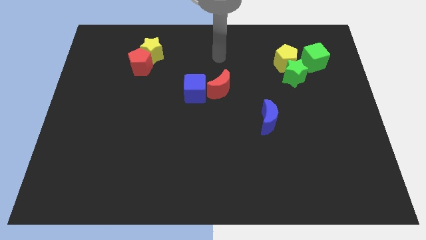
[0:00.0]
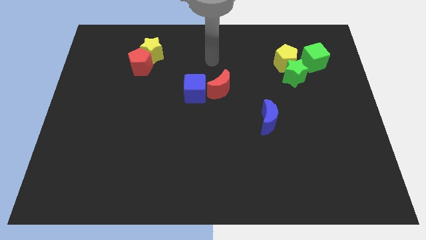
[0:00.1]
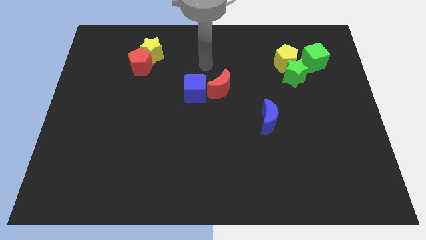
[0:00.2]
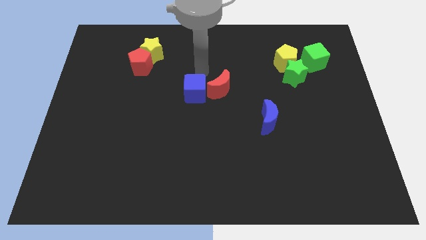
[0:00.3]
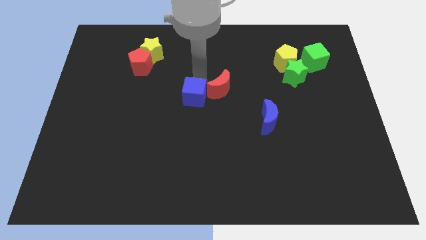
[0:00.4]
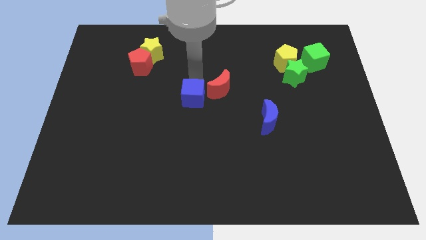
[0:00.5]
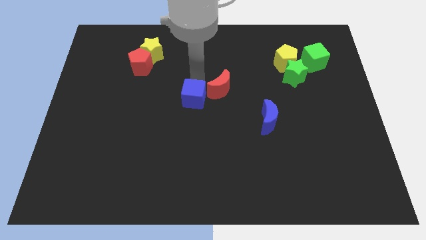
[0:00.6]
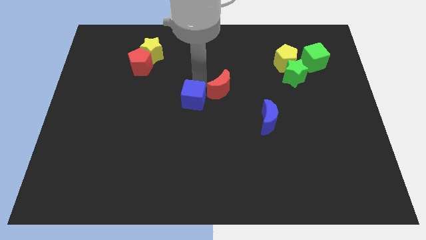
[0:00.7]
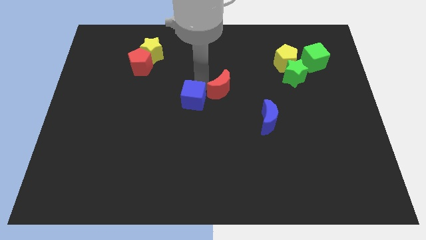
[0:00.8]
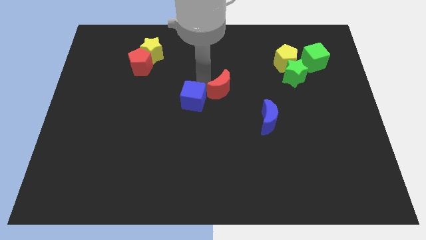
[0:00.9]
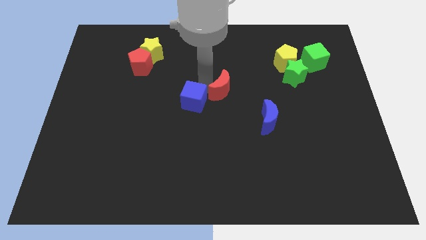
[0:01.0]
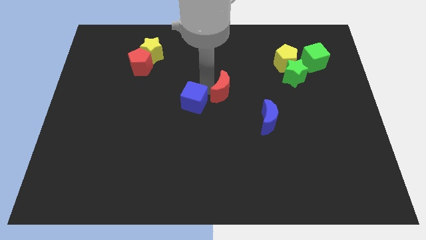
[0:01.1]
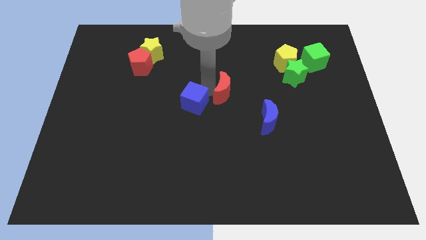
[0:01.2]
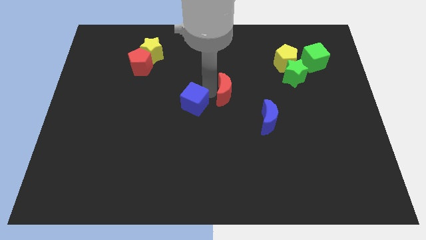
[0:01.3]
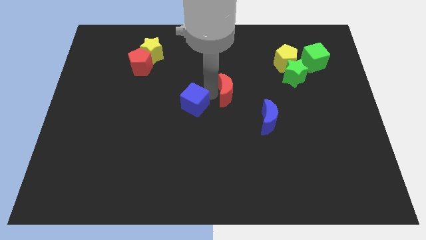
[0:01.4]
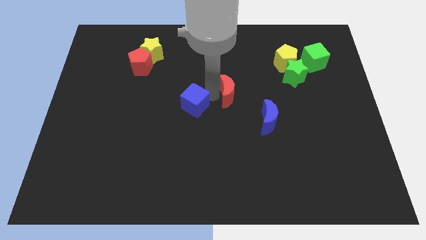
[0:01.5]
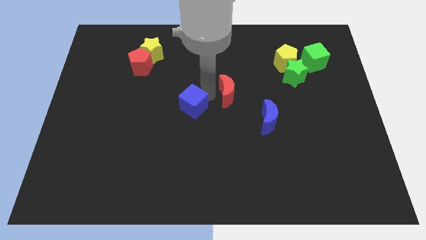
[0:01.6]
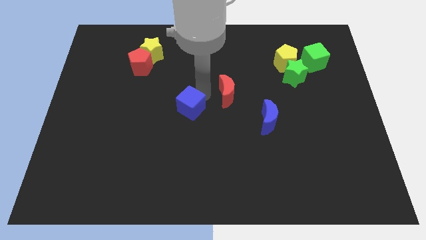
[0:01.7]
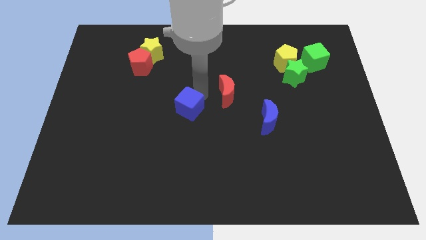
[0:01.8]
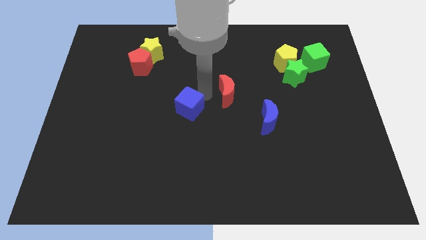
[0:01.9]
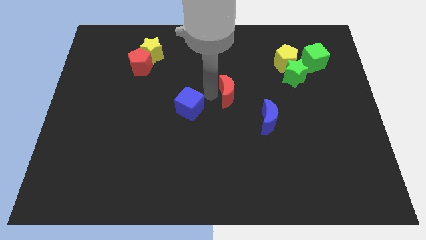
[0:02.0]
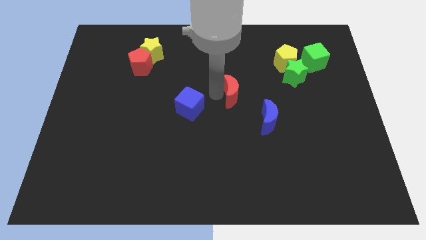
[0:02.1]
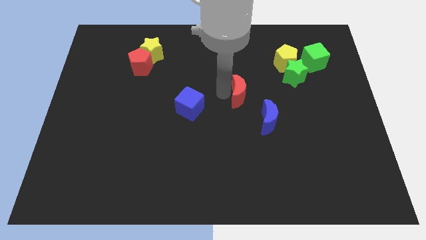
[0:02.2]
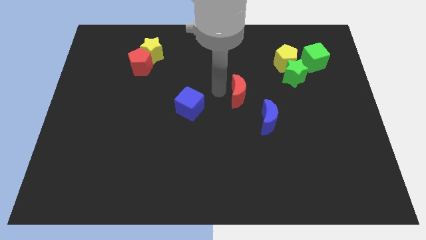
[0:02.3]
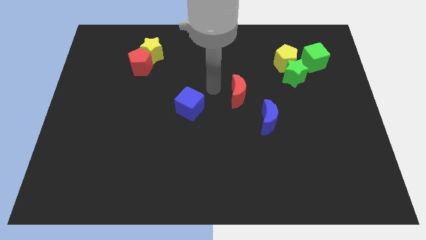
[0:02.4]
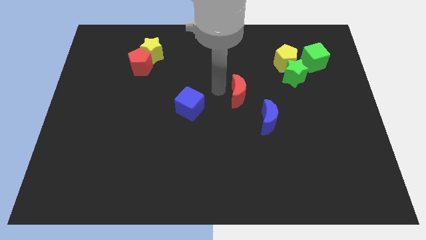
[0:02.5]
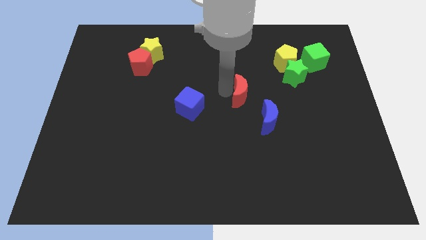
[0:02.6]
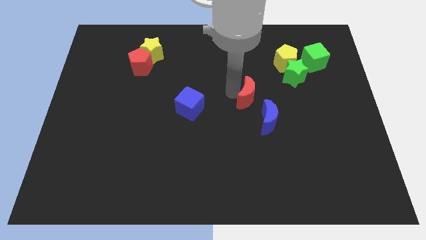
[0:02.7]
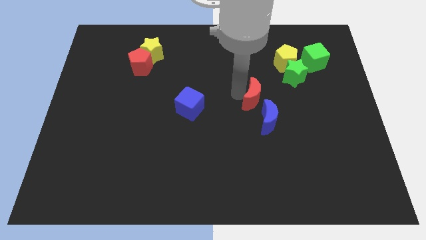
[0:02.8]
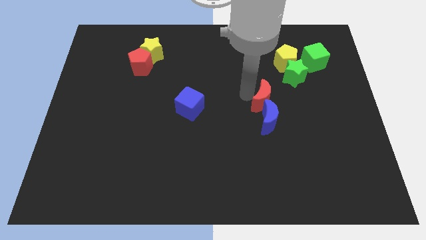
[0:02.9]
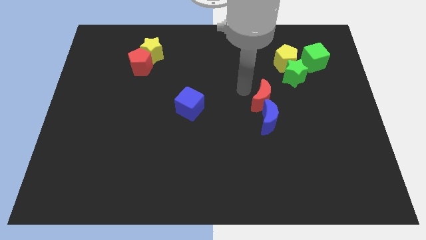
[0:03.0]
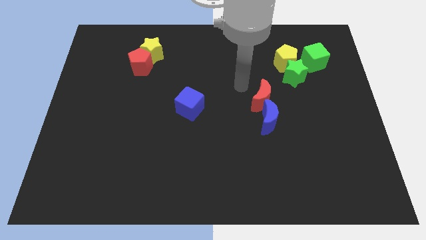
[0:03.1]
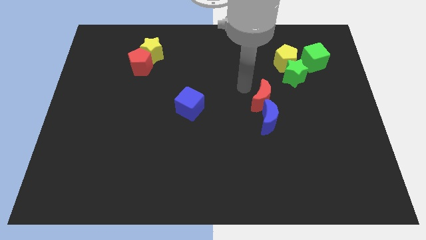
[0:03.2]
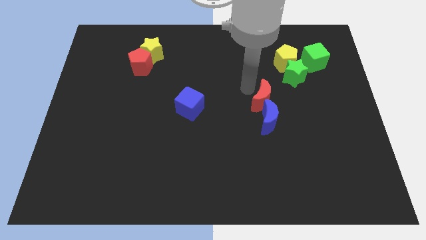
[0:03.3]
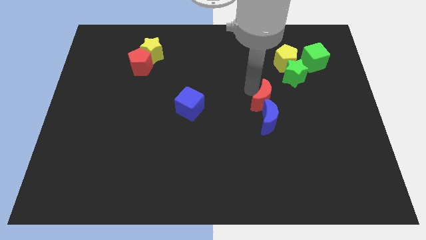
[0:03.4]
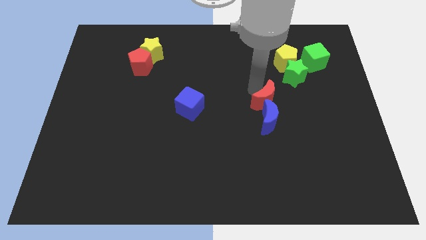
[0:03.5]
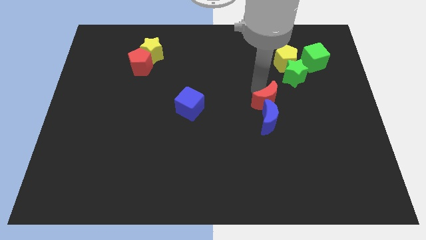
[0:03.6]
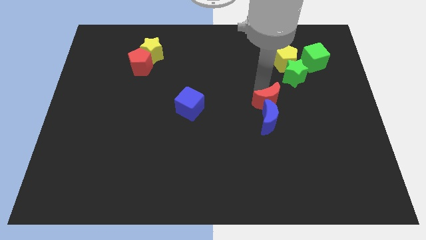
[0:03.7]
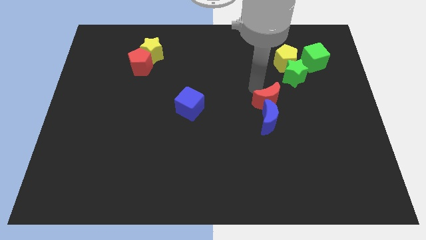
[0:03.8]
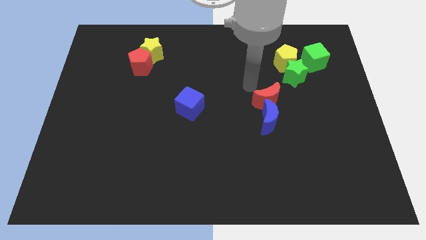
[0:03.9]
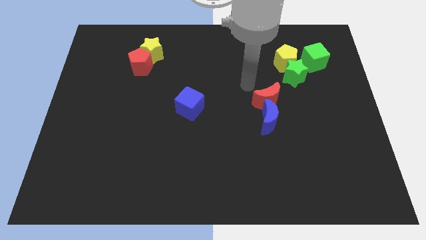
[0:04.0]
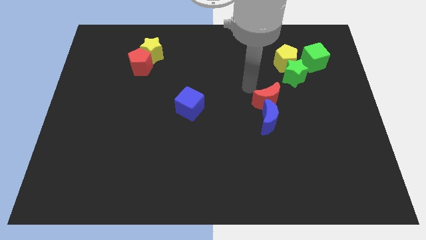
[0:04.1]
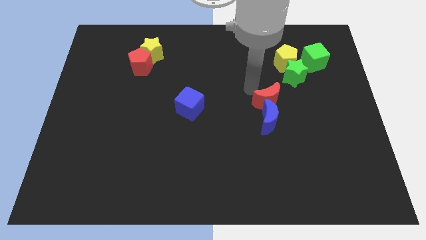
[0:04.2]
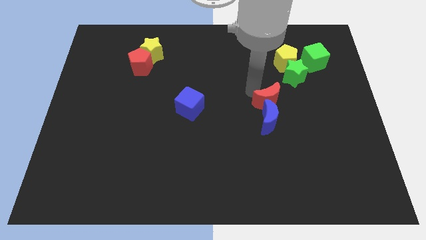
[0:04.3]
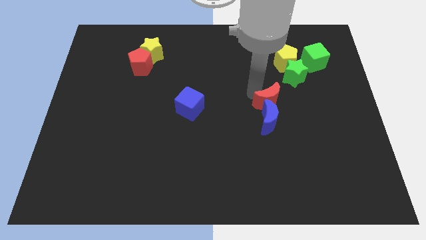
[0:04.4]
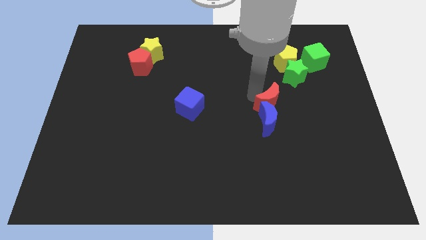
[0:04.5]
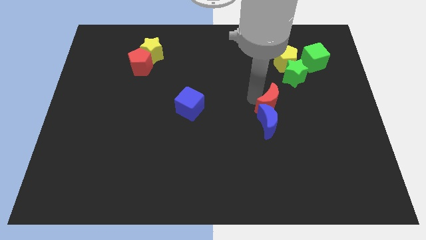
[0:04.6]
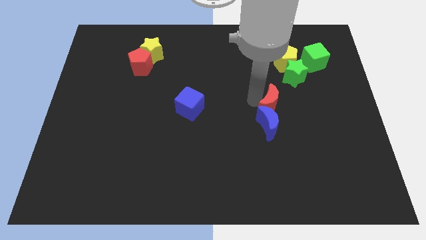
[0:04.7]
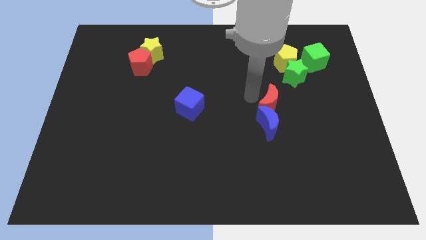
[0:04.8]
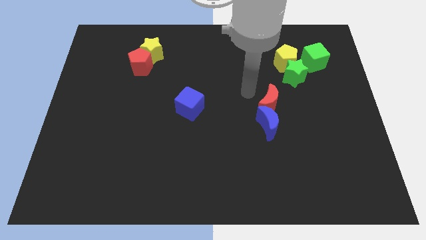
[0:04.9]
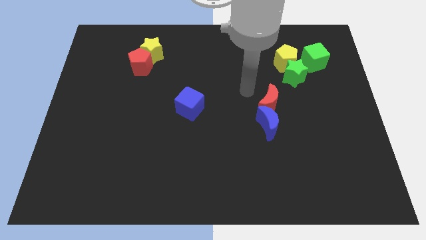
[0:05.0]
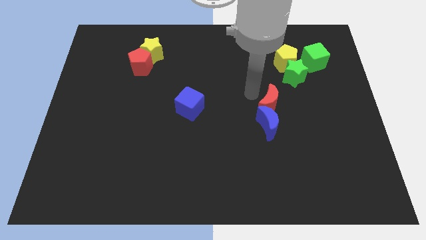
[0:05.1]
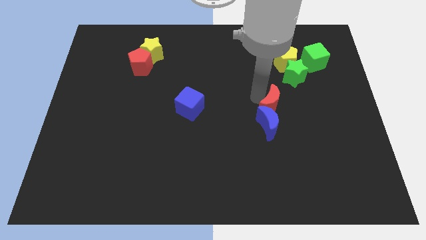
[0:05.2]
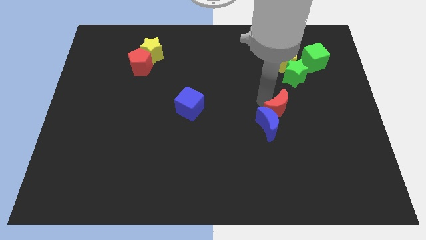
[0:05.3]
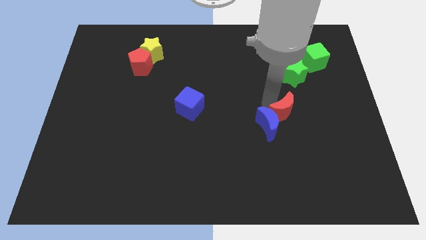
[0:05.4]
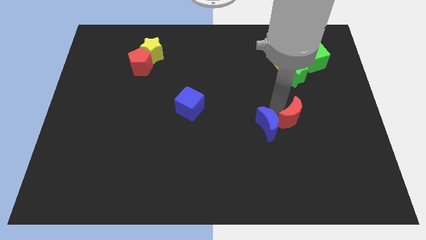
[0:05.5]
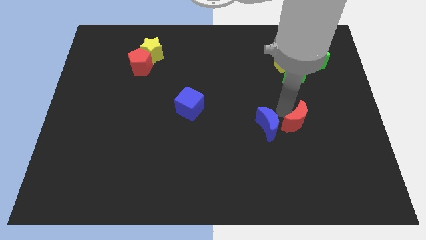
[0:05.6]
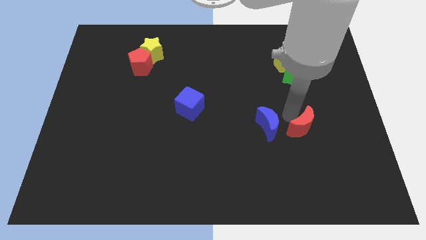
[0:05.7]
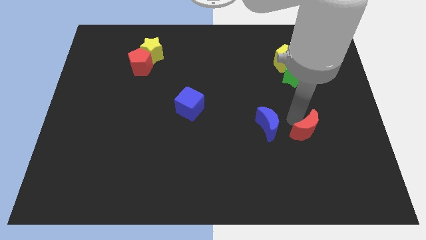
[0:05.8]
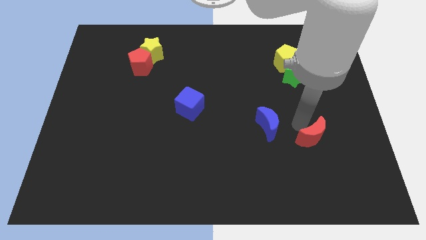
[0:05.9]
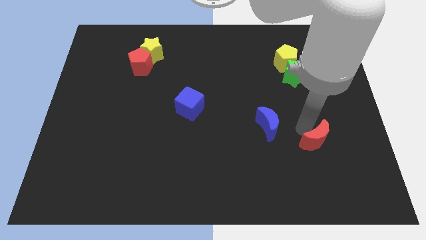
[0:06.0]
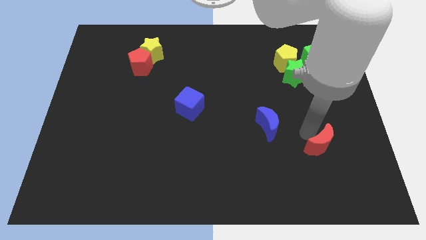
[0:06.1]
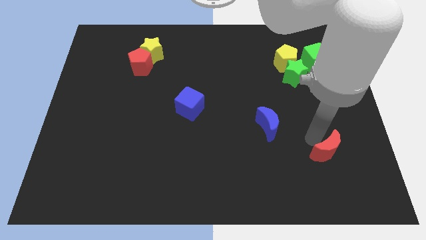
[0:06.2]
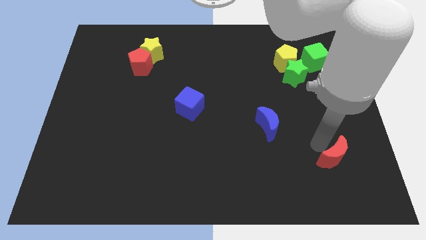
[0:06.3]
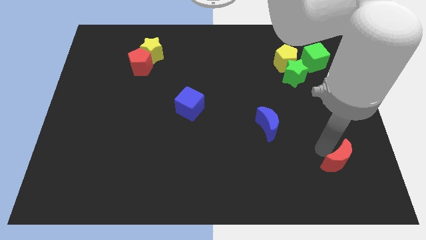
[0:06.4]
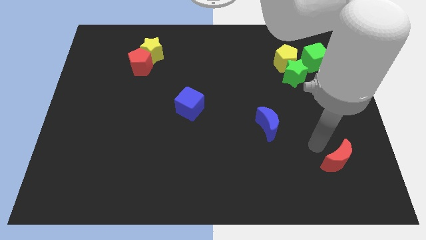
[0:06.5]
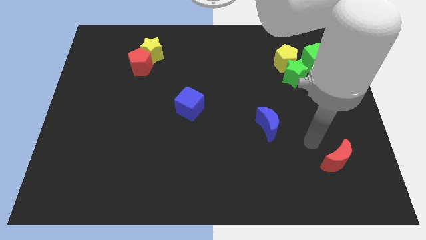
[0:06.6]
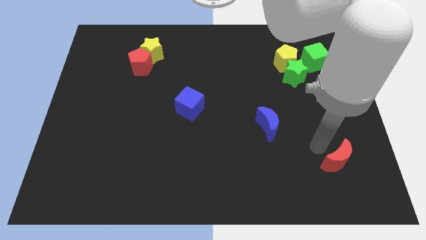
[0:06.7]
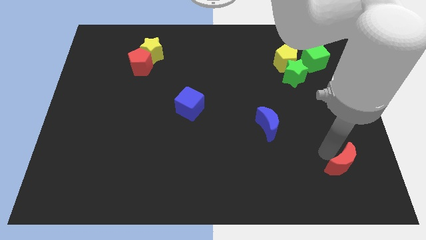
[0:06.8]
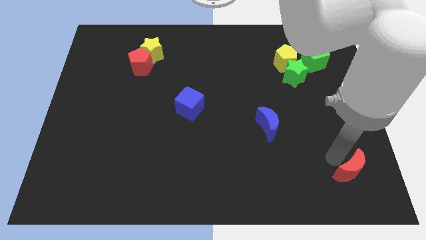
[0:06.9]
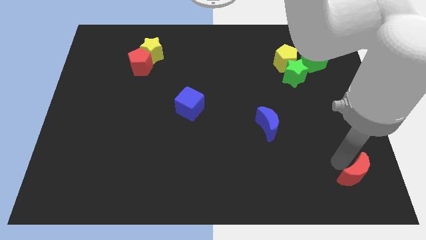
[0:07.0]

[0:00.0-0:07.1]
put the red moon to the bottom right corner
